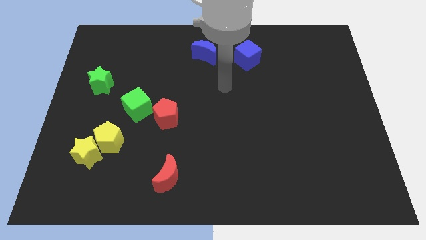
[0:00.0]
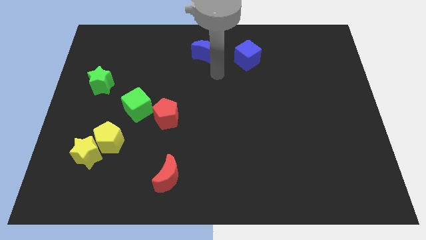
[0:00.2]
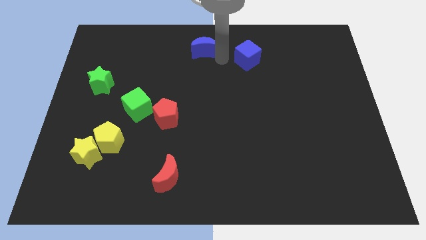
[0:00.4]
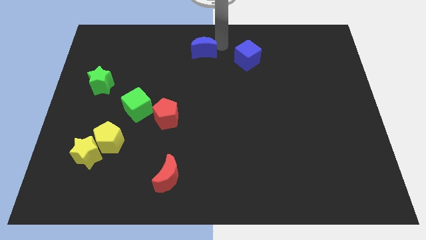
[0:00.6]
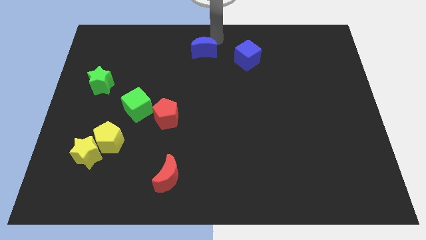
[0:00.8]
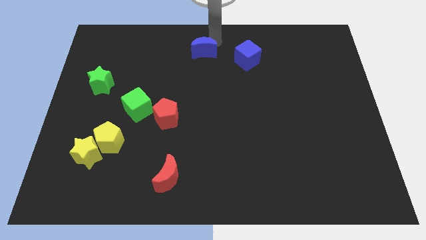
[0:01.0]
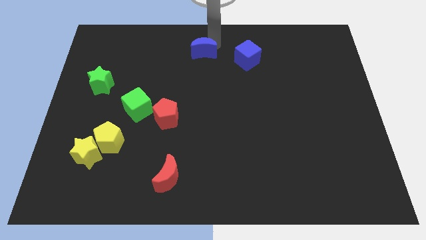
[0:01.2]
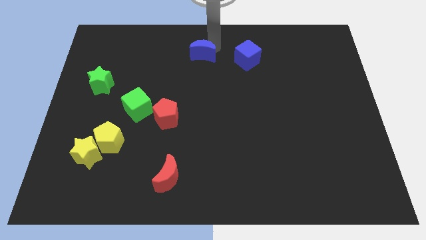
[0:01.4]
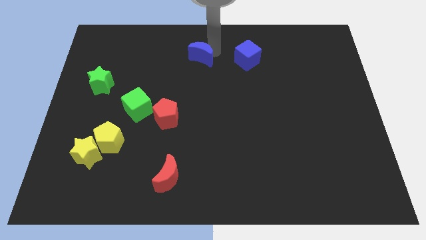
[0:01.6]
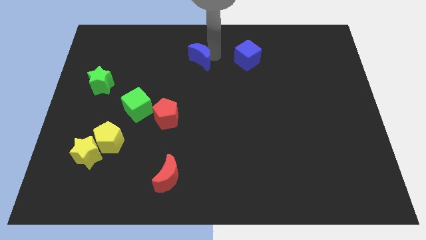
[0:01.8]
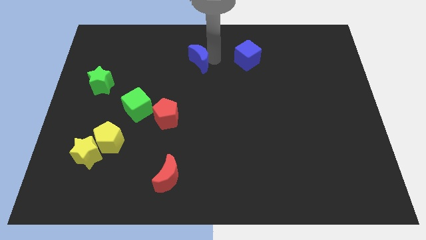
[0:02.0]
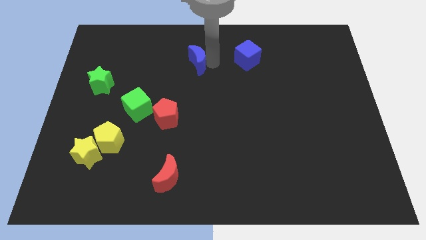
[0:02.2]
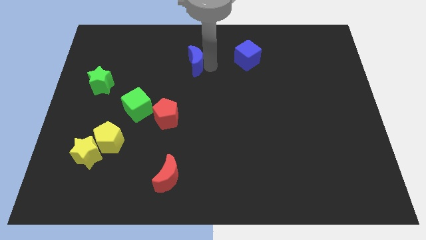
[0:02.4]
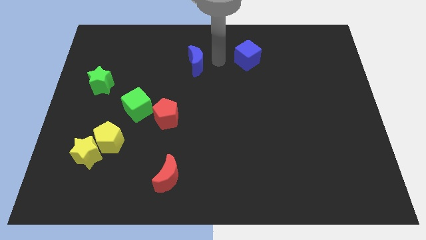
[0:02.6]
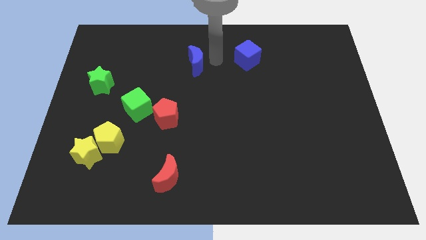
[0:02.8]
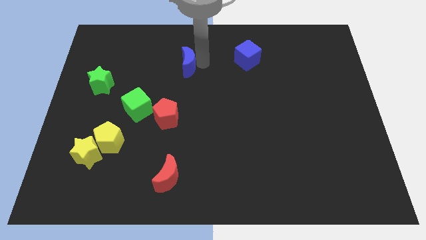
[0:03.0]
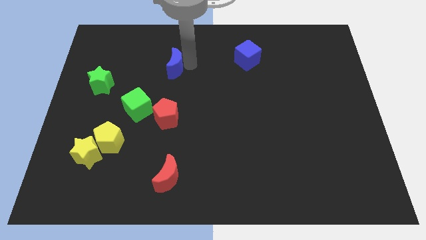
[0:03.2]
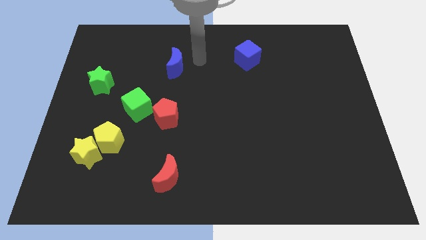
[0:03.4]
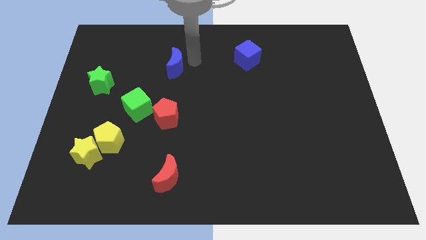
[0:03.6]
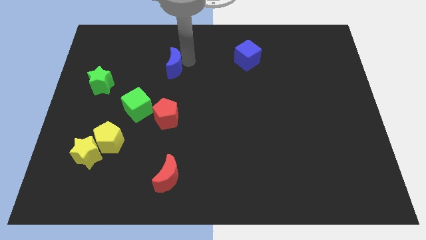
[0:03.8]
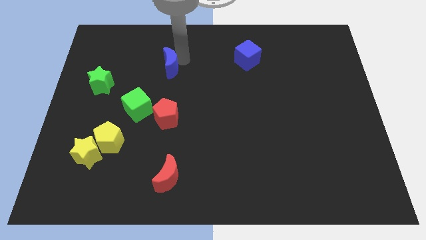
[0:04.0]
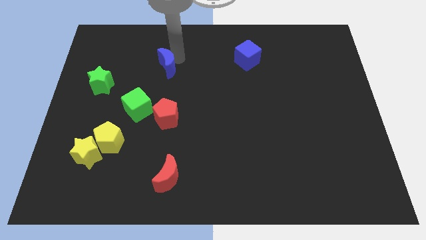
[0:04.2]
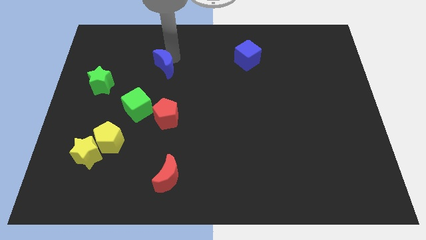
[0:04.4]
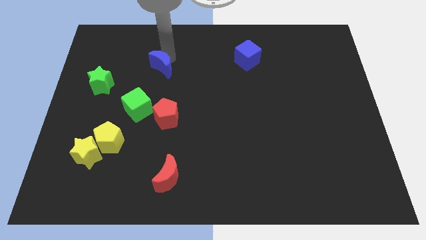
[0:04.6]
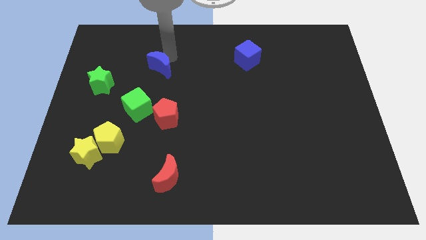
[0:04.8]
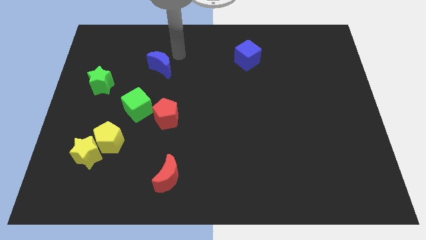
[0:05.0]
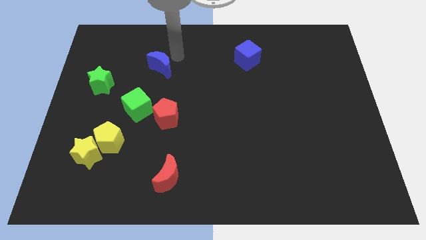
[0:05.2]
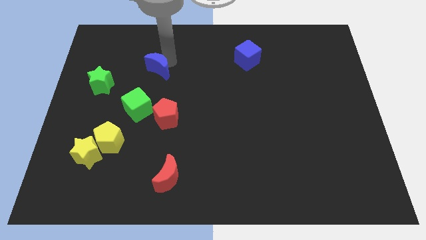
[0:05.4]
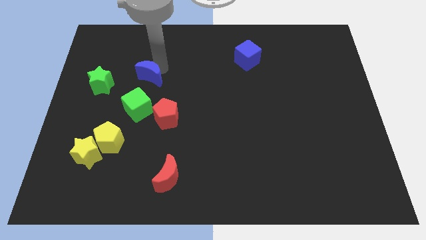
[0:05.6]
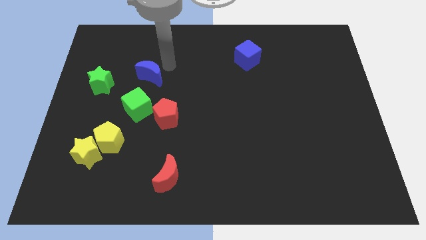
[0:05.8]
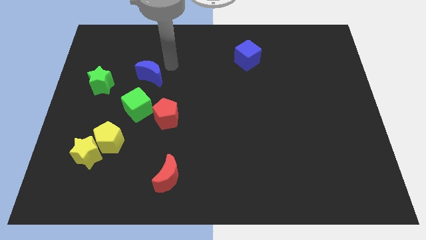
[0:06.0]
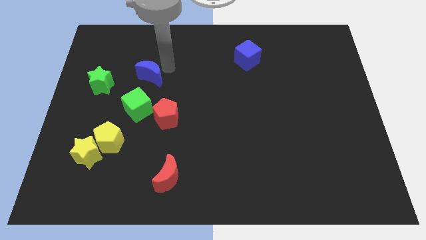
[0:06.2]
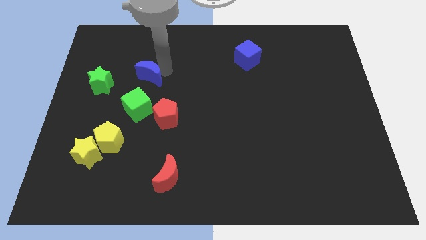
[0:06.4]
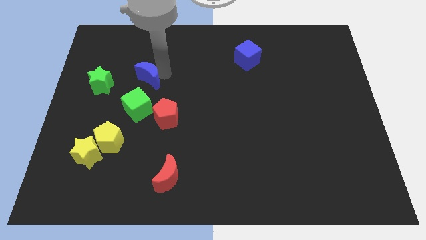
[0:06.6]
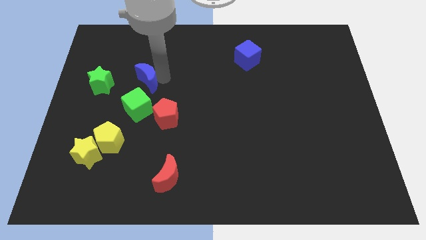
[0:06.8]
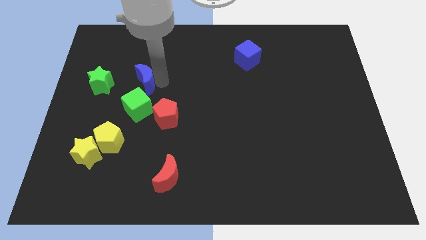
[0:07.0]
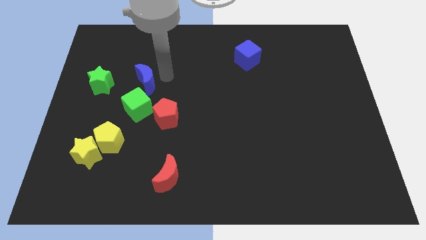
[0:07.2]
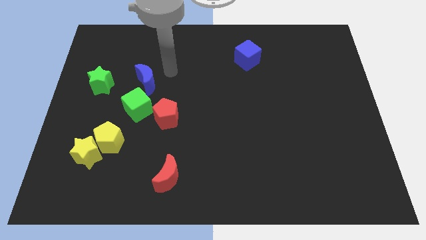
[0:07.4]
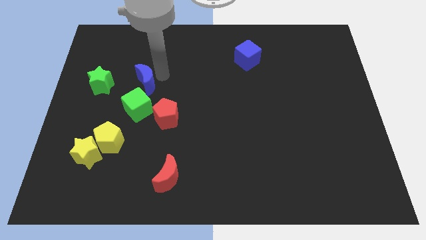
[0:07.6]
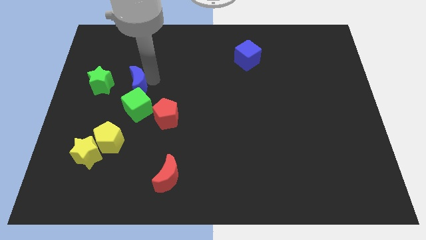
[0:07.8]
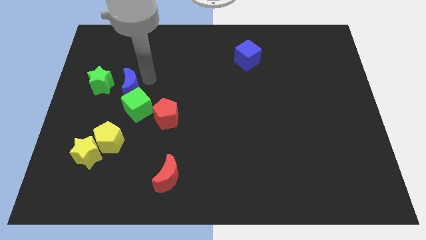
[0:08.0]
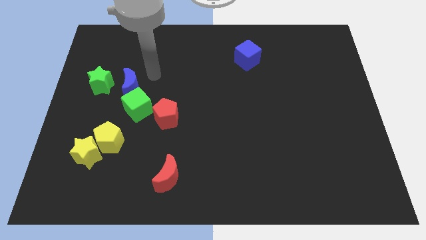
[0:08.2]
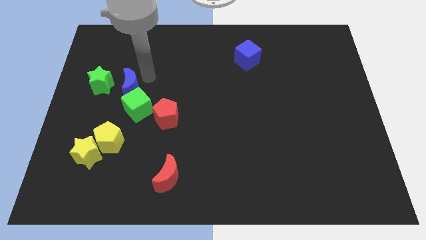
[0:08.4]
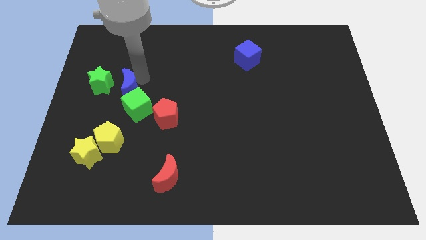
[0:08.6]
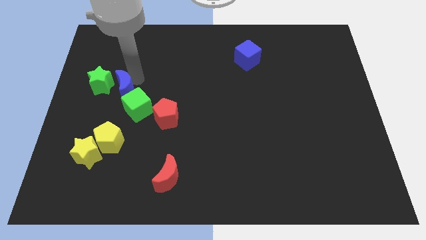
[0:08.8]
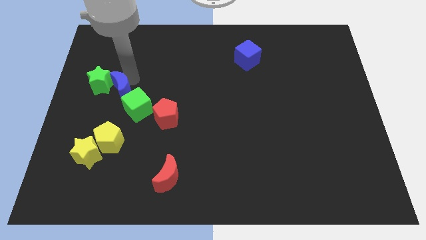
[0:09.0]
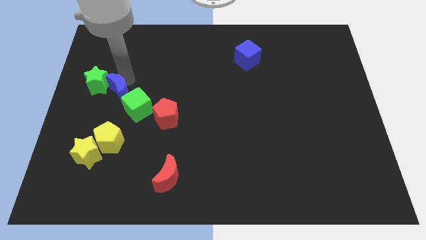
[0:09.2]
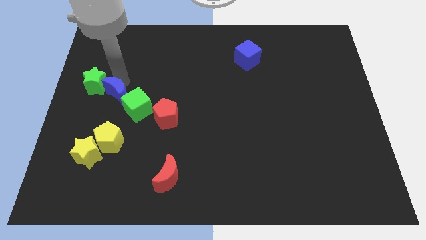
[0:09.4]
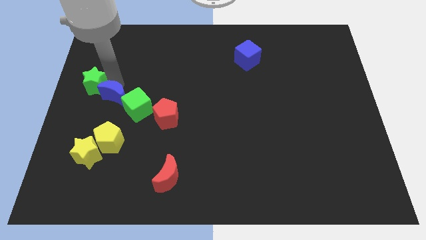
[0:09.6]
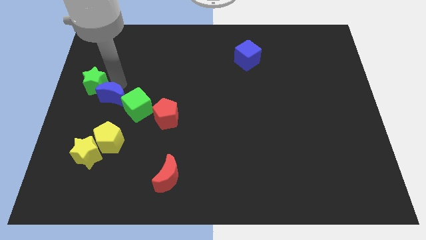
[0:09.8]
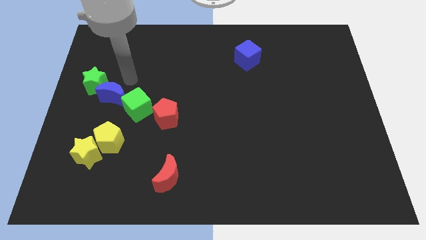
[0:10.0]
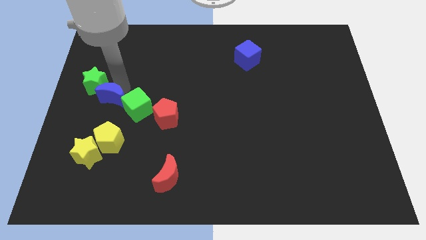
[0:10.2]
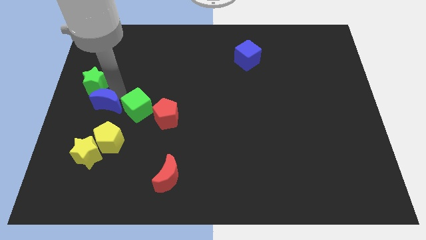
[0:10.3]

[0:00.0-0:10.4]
put the blue moon above the yellow star

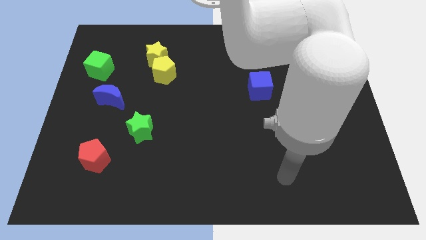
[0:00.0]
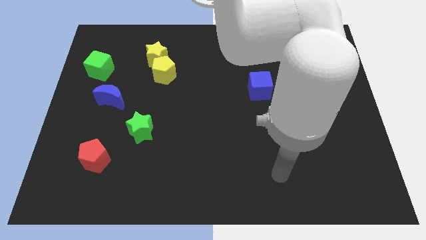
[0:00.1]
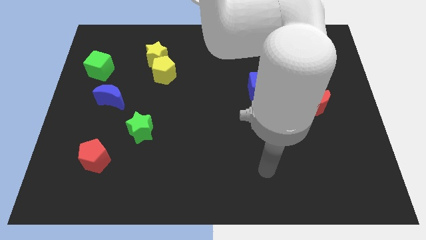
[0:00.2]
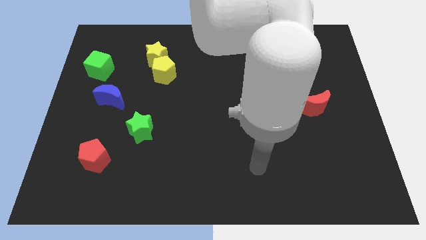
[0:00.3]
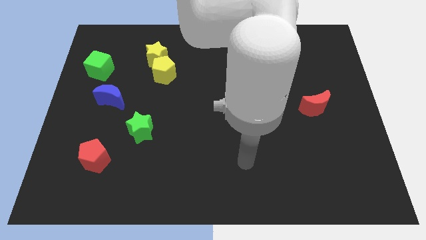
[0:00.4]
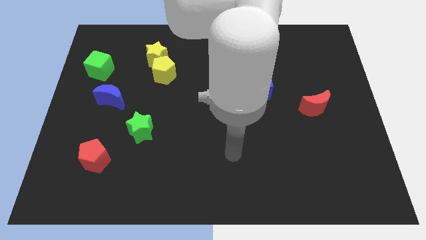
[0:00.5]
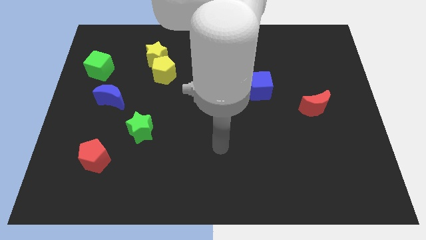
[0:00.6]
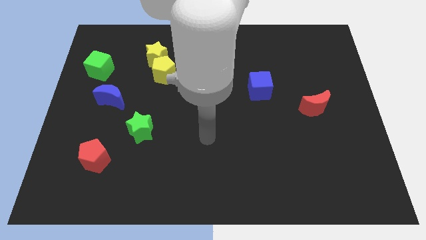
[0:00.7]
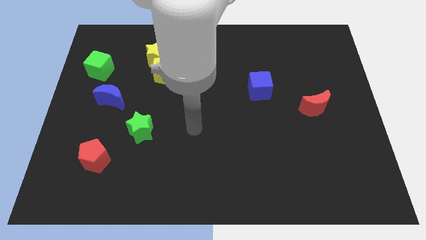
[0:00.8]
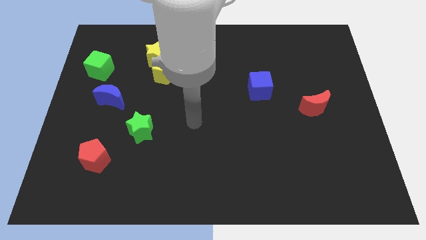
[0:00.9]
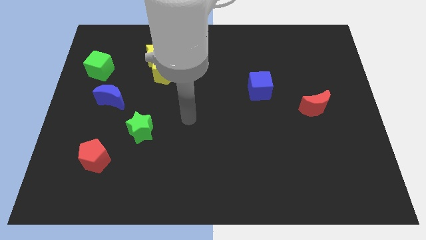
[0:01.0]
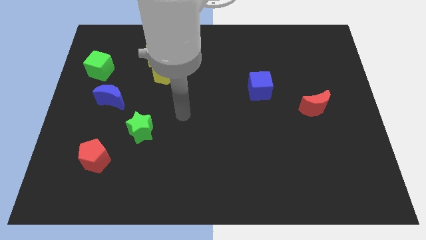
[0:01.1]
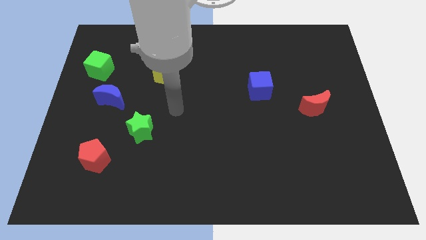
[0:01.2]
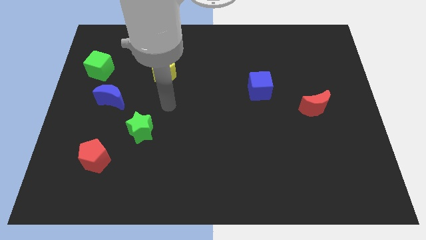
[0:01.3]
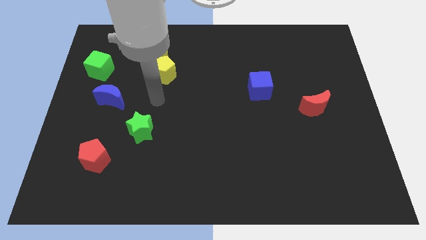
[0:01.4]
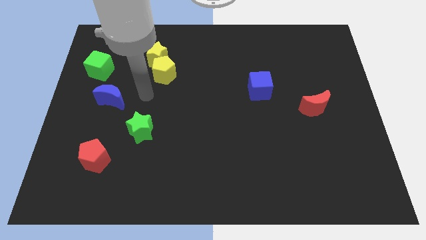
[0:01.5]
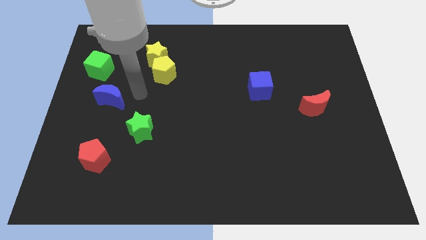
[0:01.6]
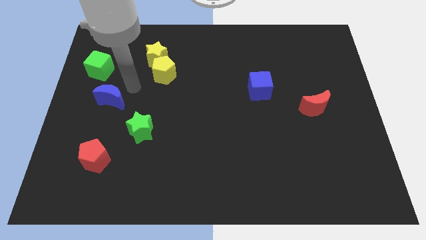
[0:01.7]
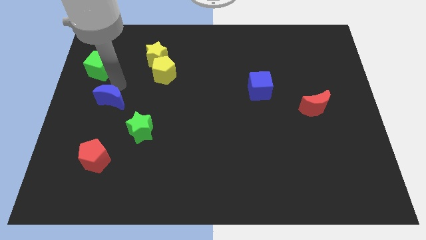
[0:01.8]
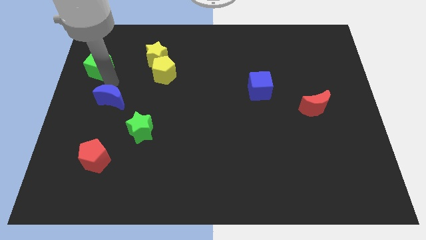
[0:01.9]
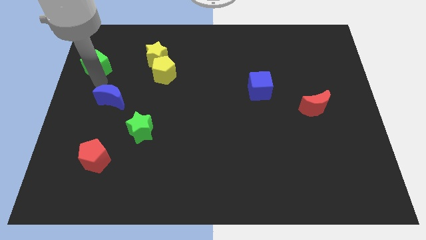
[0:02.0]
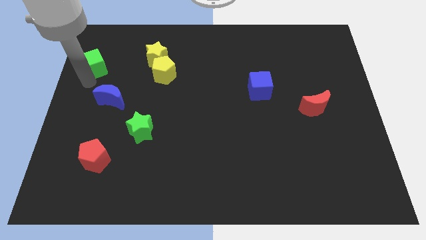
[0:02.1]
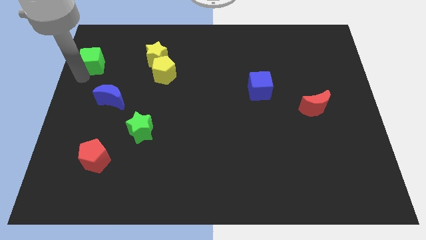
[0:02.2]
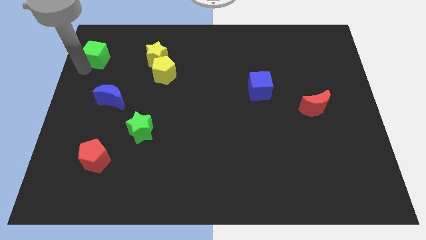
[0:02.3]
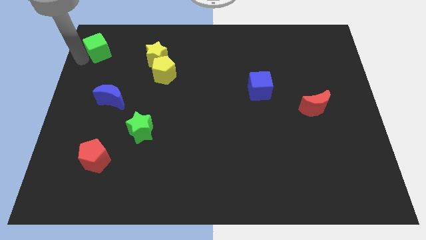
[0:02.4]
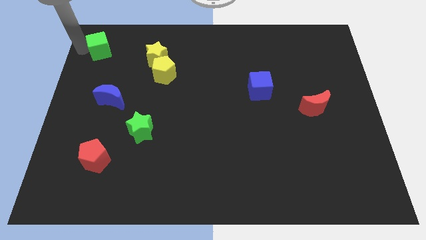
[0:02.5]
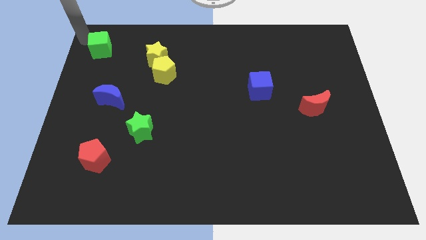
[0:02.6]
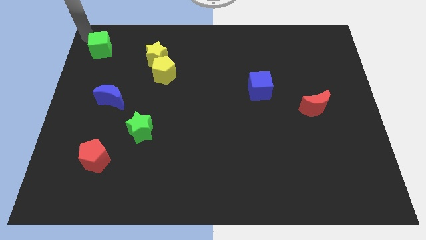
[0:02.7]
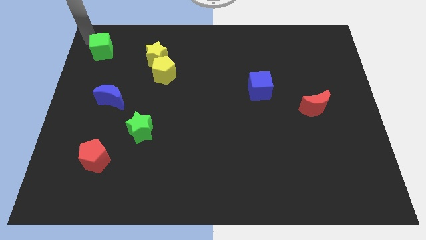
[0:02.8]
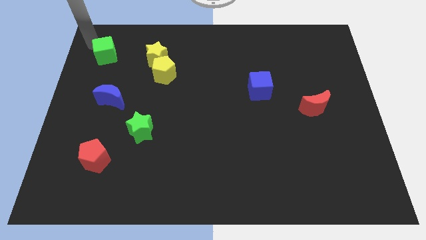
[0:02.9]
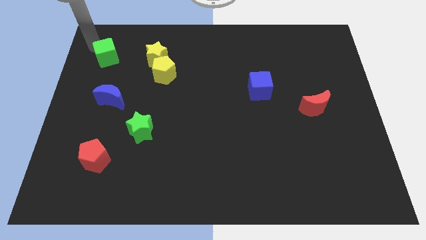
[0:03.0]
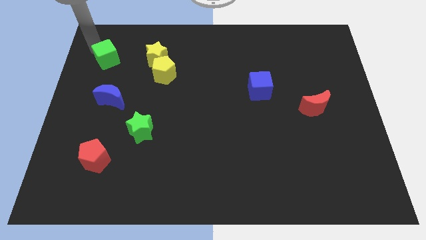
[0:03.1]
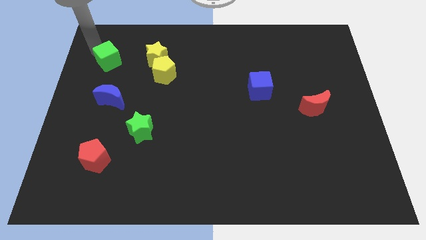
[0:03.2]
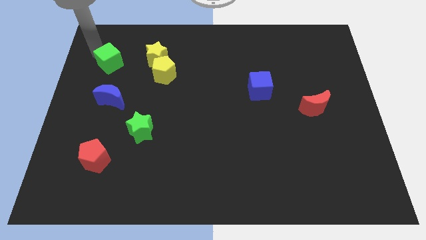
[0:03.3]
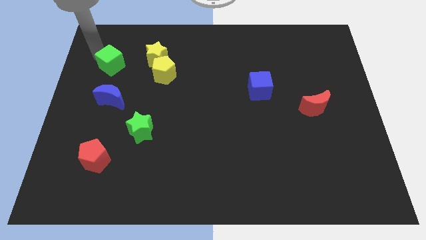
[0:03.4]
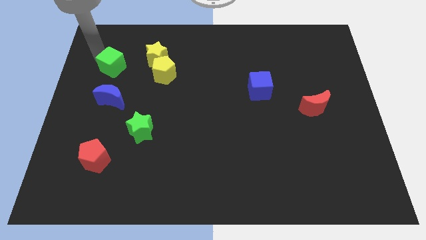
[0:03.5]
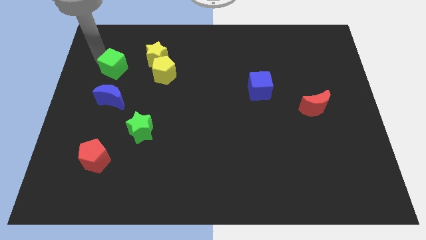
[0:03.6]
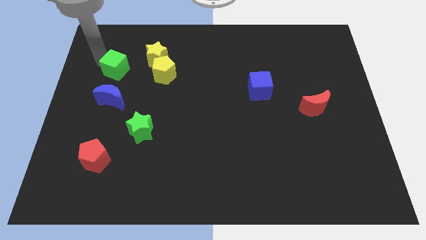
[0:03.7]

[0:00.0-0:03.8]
push the green cube to the bottom left of the yellow star
